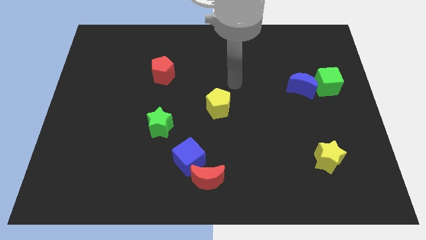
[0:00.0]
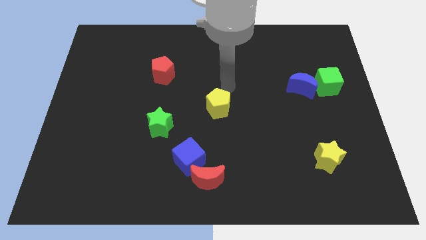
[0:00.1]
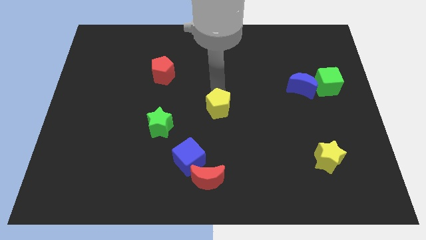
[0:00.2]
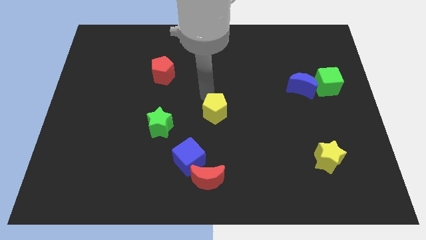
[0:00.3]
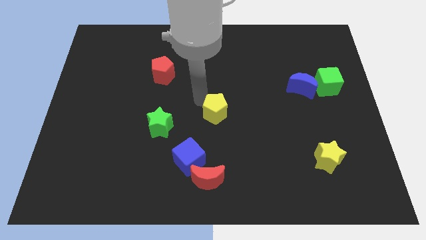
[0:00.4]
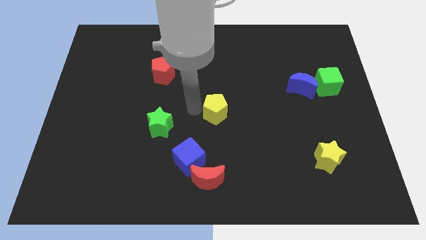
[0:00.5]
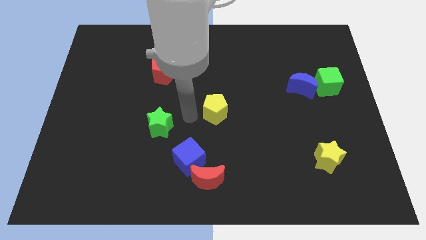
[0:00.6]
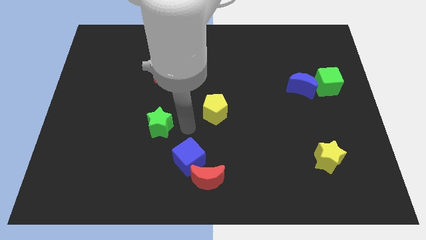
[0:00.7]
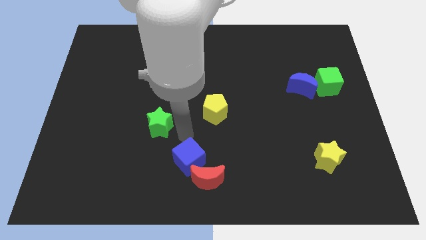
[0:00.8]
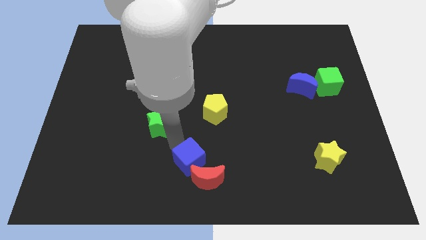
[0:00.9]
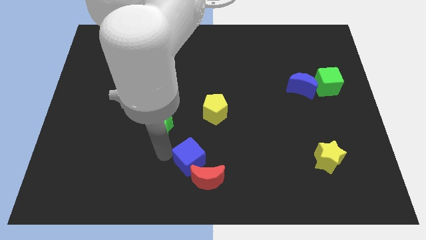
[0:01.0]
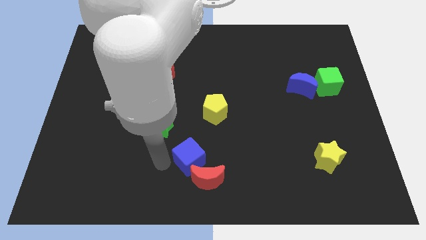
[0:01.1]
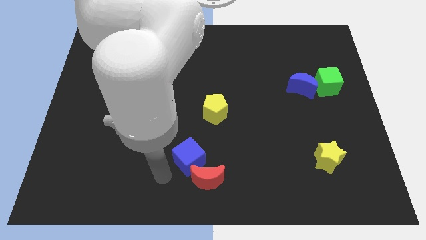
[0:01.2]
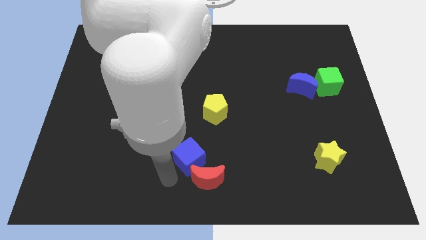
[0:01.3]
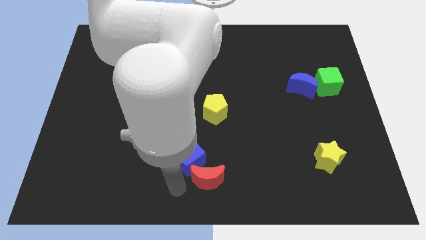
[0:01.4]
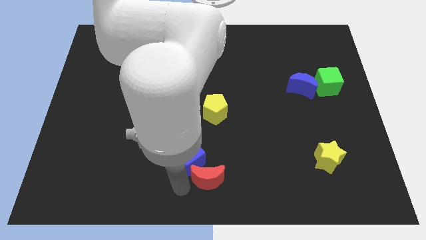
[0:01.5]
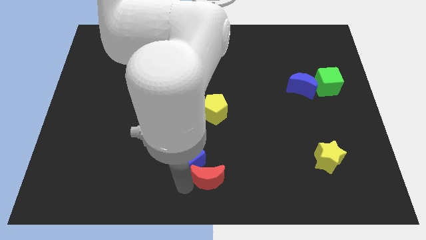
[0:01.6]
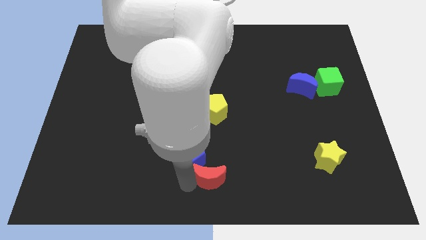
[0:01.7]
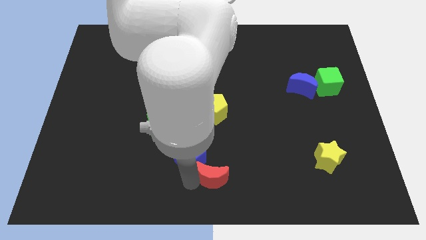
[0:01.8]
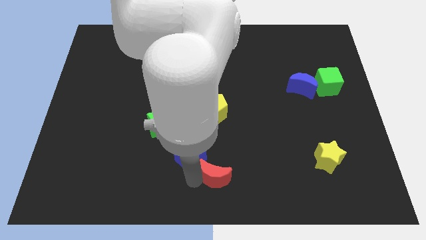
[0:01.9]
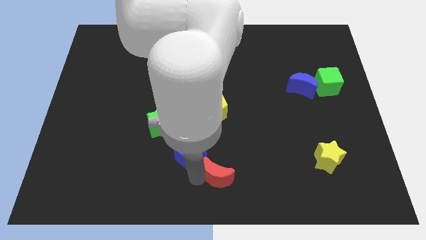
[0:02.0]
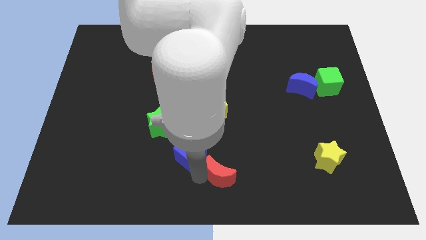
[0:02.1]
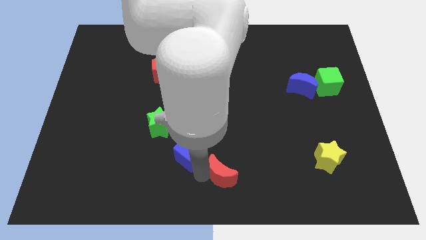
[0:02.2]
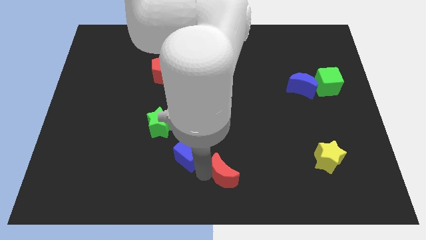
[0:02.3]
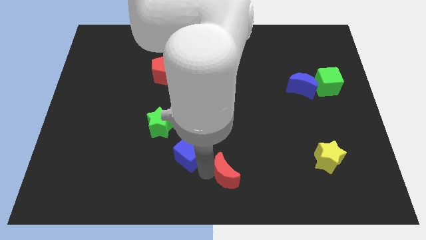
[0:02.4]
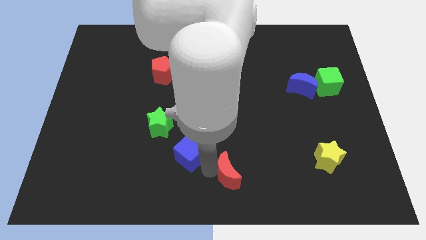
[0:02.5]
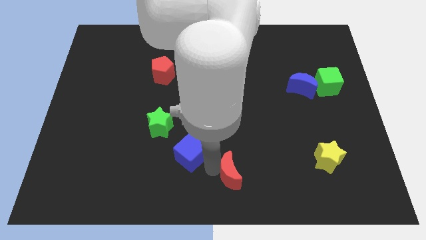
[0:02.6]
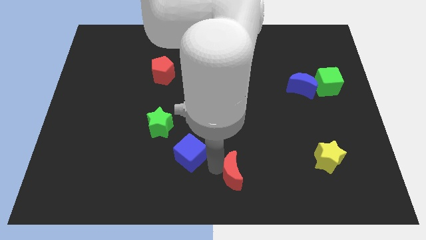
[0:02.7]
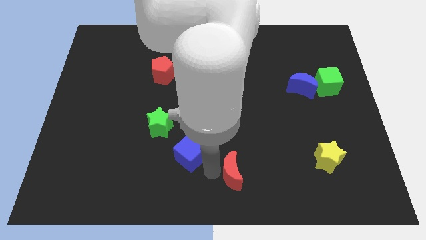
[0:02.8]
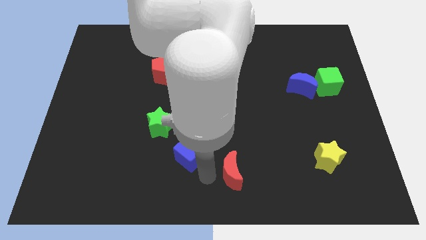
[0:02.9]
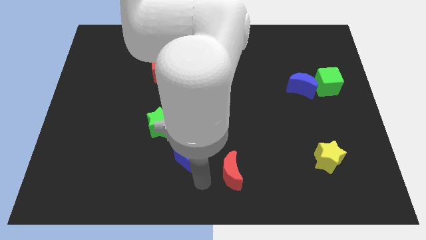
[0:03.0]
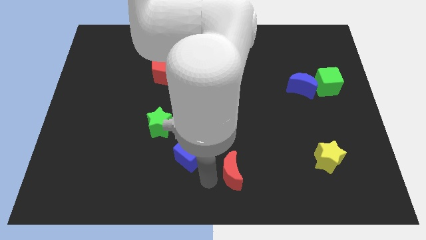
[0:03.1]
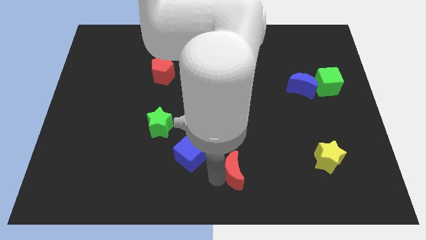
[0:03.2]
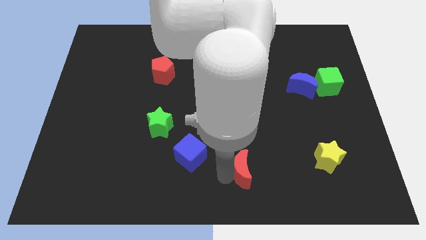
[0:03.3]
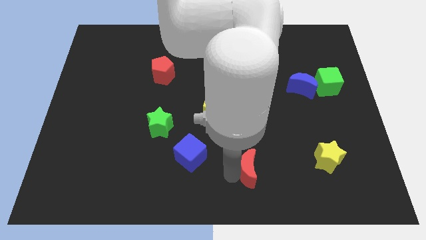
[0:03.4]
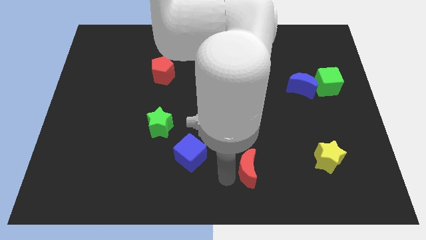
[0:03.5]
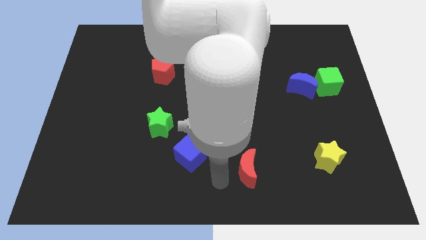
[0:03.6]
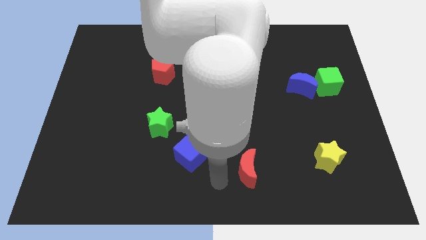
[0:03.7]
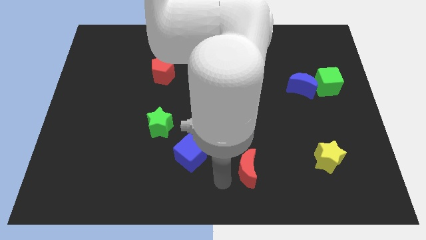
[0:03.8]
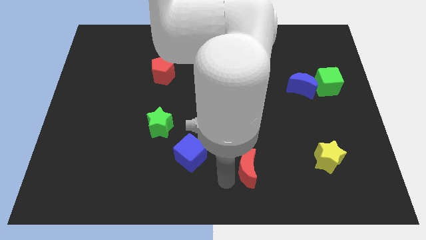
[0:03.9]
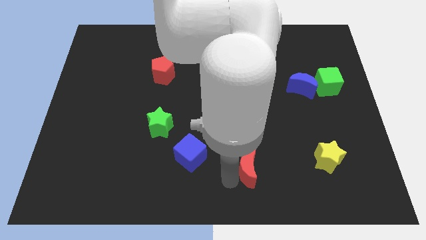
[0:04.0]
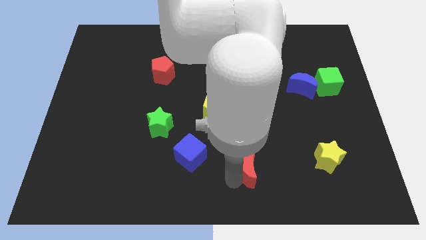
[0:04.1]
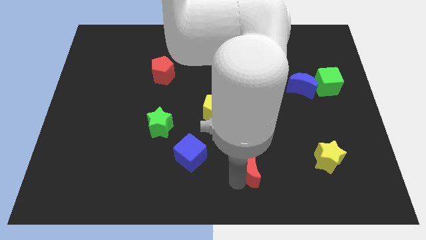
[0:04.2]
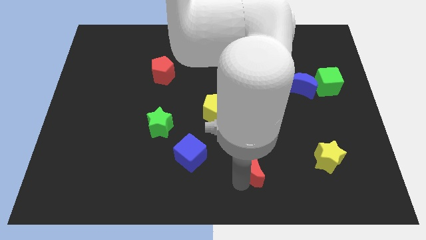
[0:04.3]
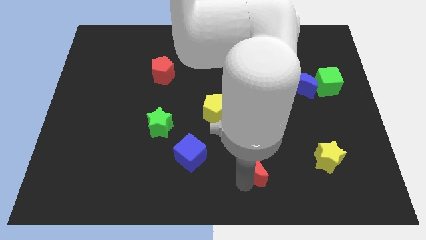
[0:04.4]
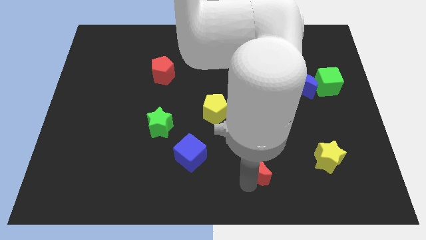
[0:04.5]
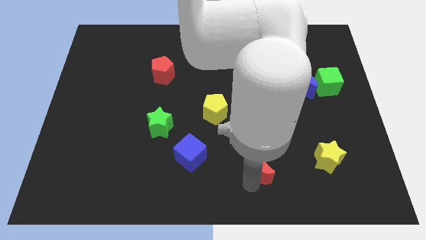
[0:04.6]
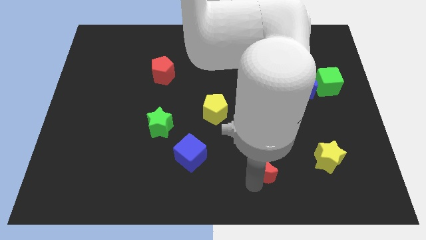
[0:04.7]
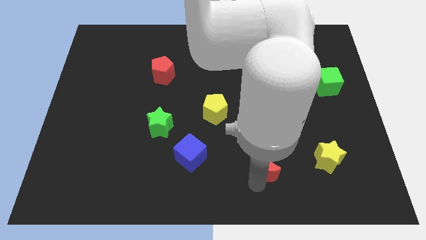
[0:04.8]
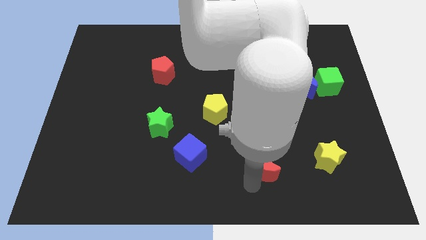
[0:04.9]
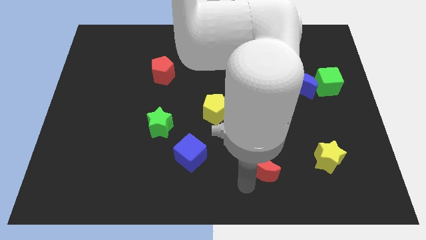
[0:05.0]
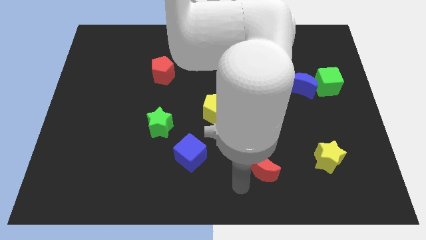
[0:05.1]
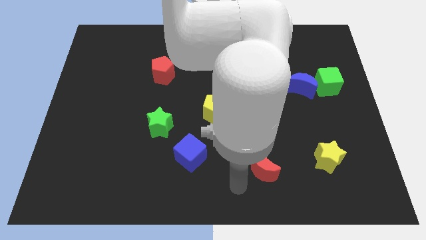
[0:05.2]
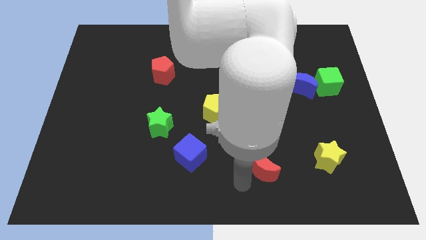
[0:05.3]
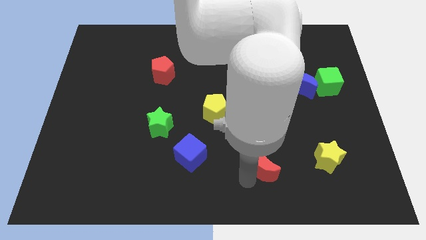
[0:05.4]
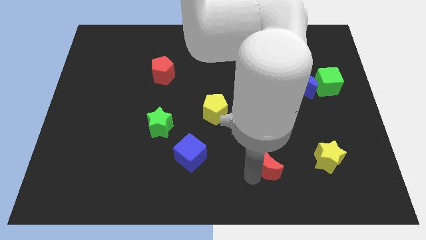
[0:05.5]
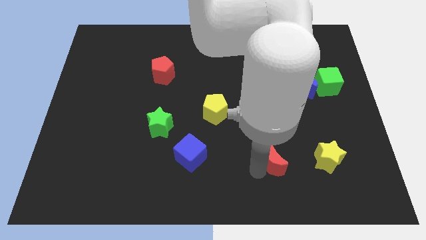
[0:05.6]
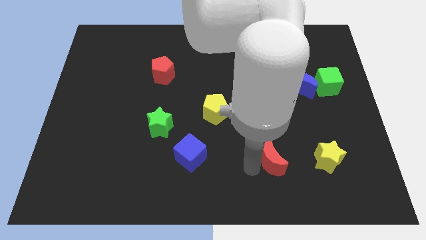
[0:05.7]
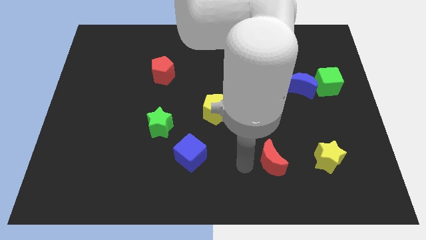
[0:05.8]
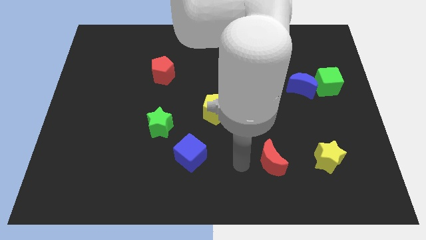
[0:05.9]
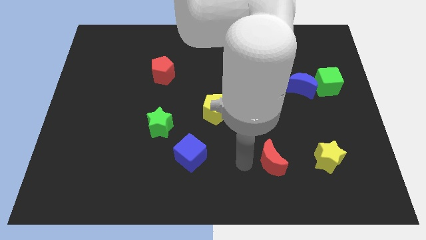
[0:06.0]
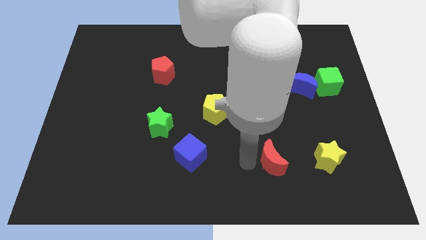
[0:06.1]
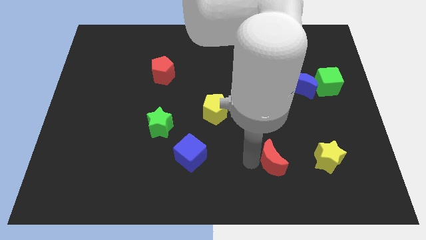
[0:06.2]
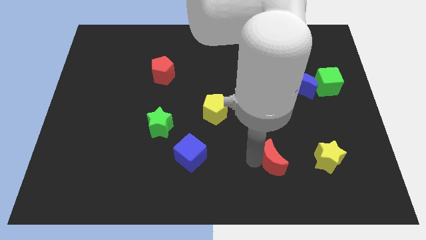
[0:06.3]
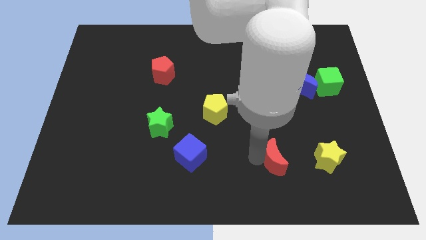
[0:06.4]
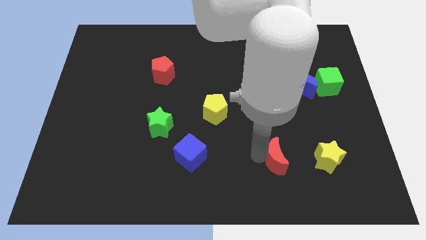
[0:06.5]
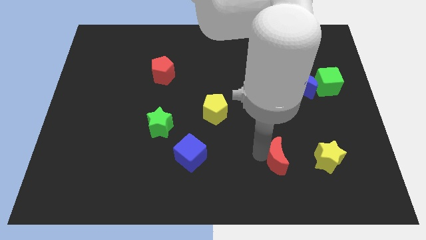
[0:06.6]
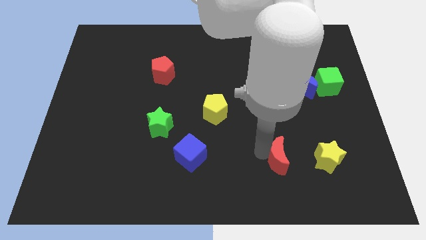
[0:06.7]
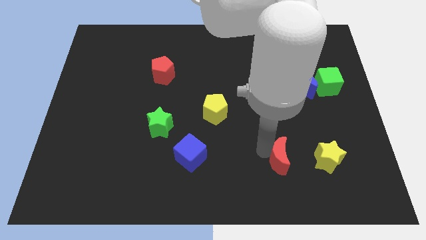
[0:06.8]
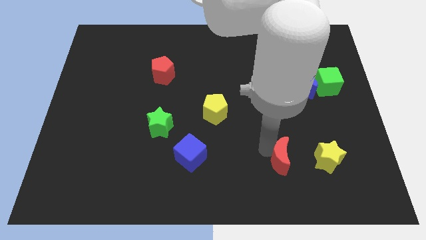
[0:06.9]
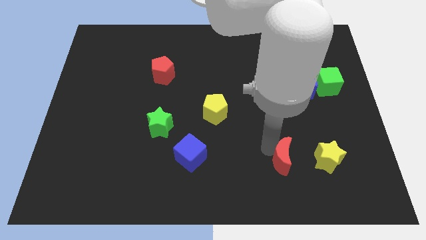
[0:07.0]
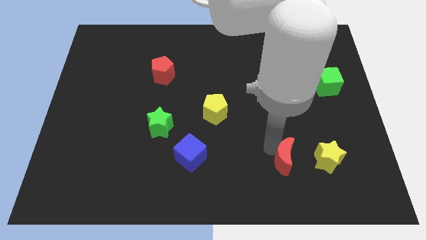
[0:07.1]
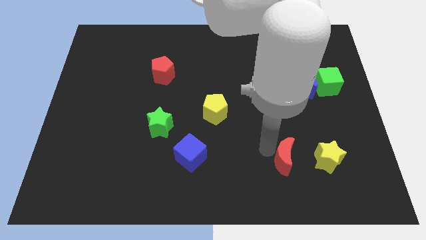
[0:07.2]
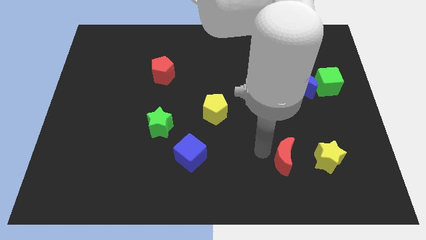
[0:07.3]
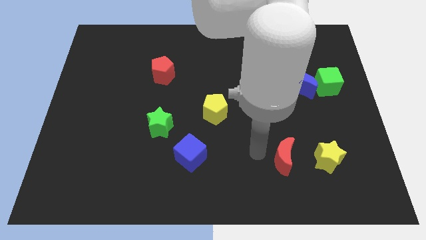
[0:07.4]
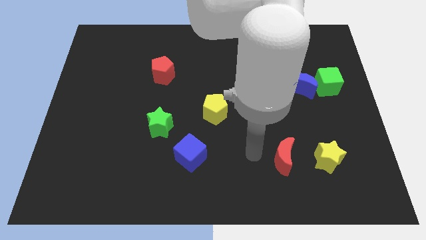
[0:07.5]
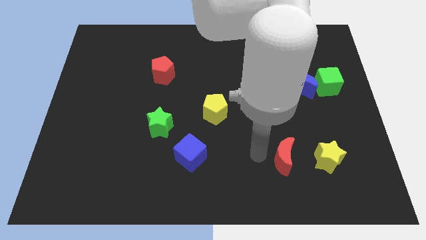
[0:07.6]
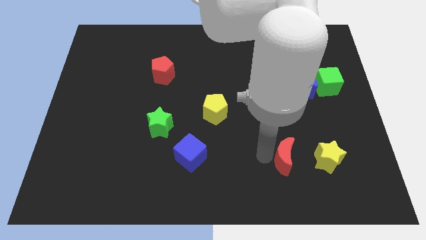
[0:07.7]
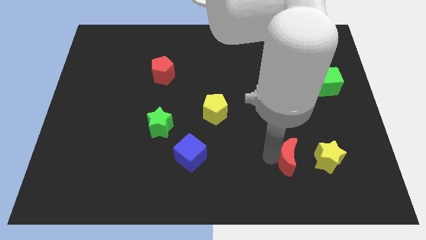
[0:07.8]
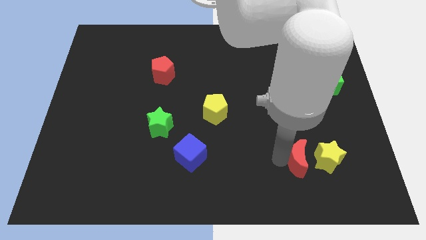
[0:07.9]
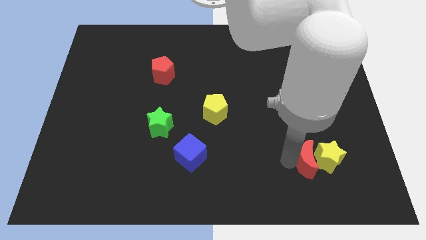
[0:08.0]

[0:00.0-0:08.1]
put the red moon towards the yellow star
